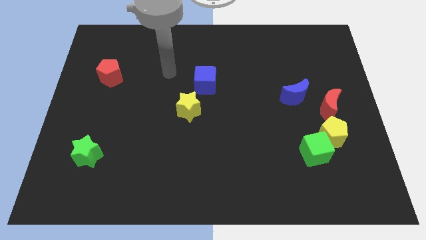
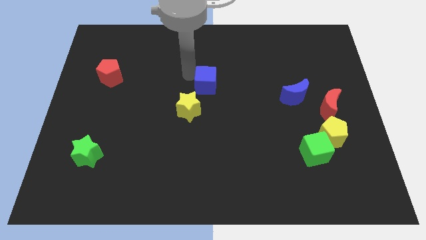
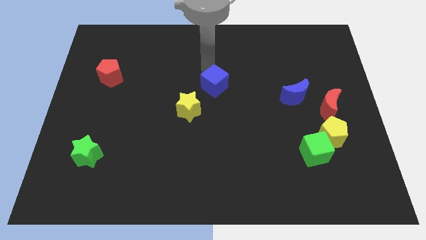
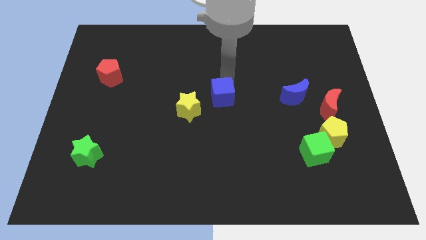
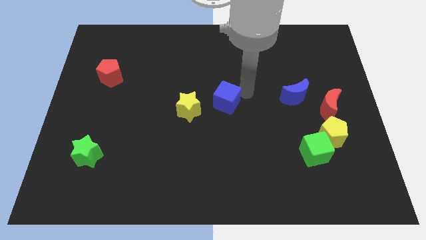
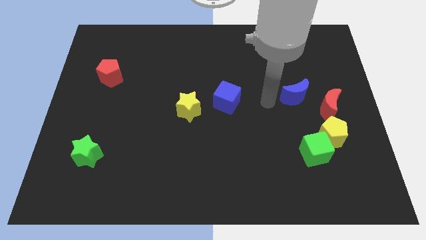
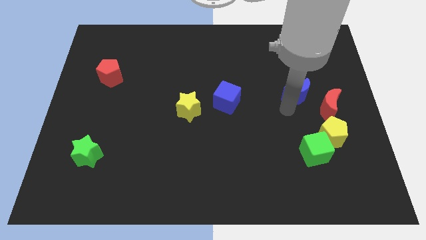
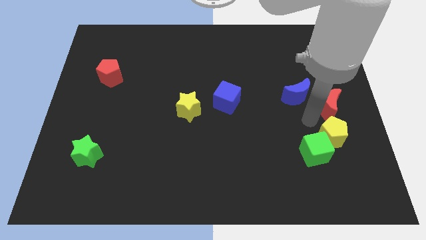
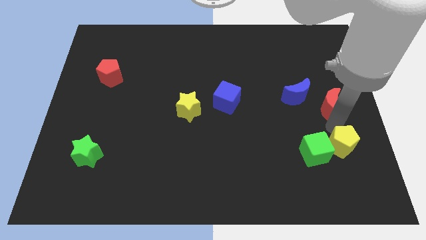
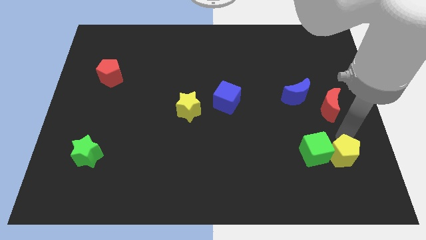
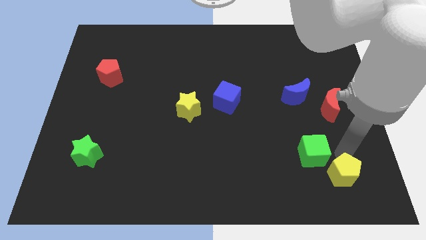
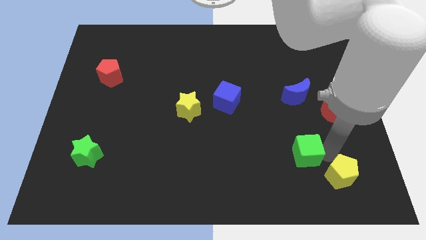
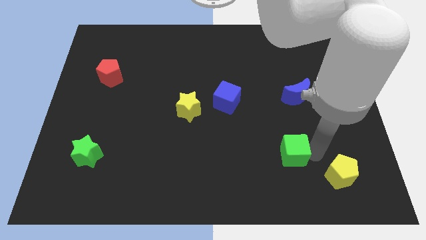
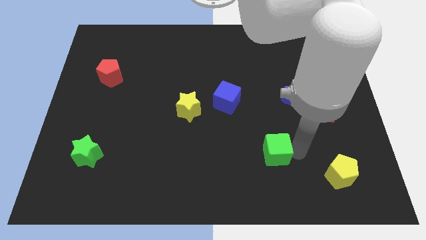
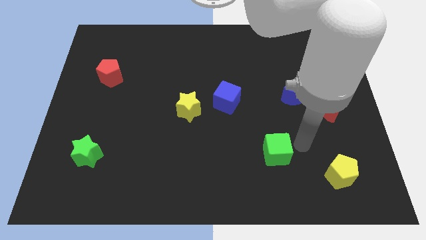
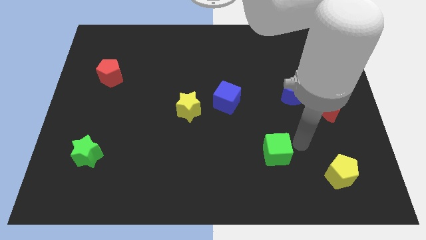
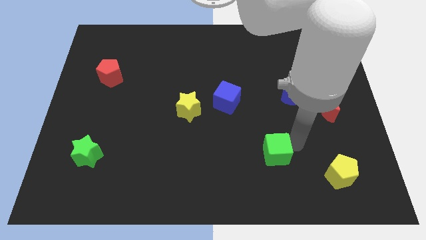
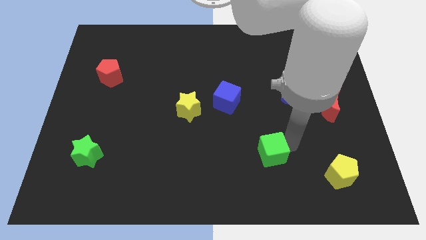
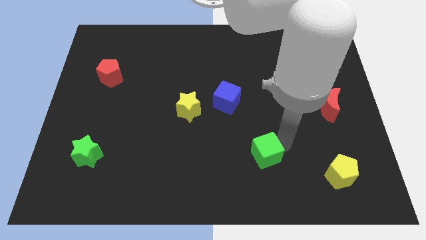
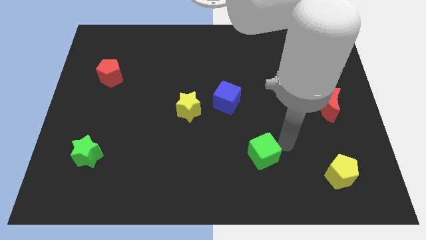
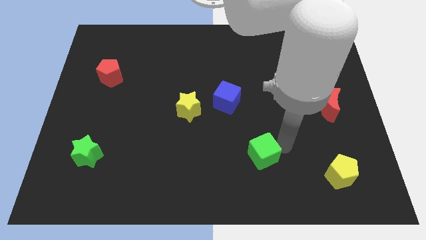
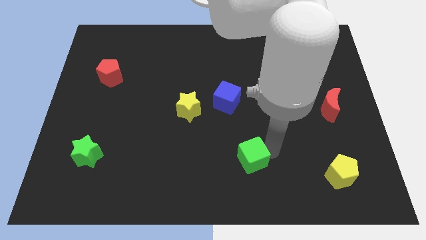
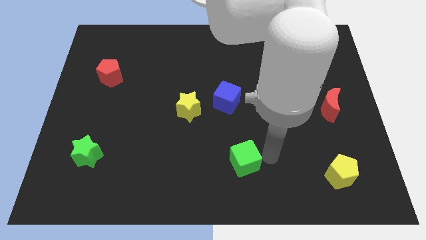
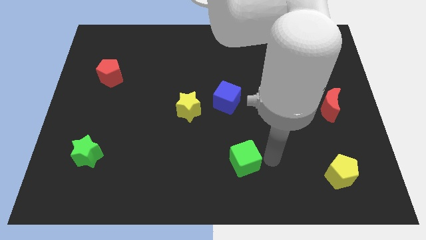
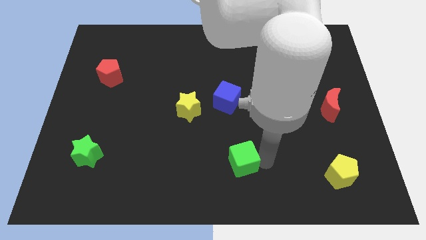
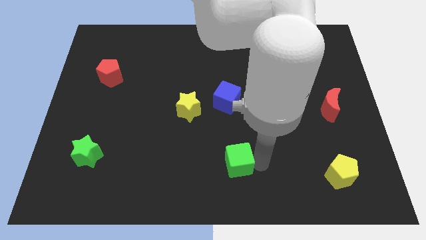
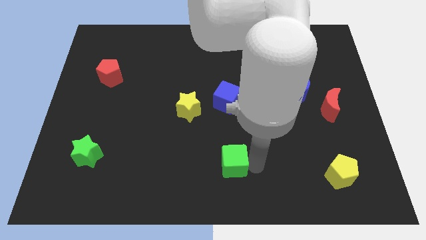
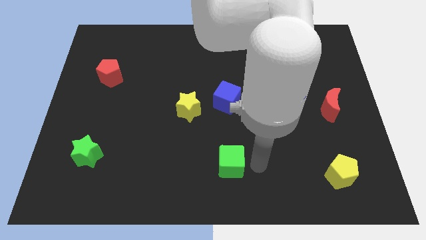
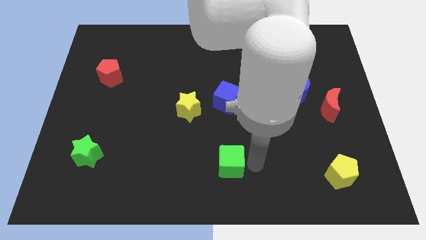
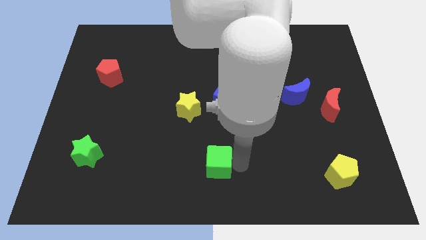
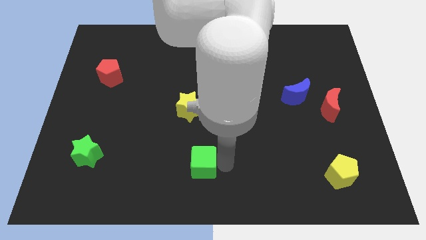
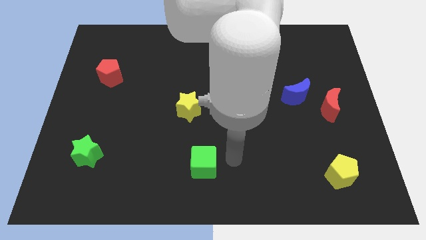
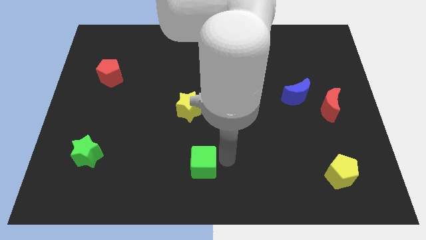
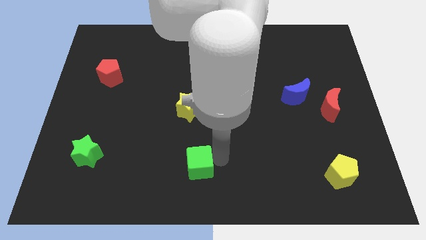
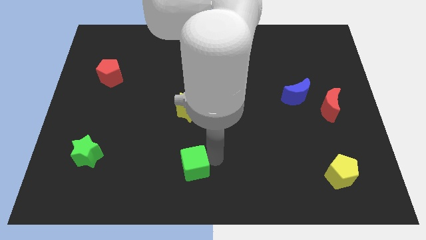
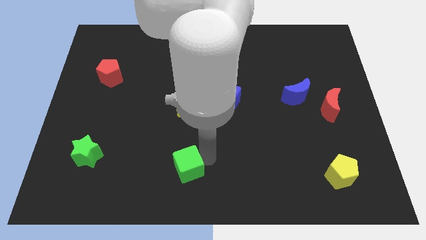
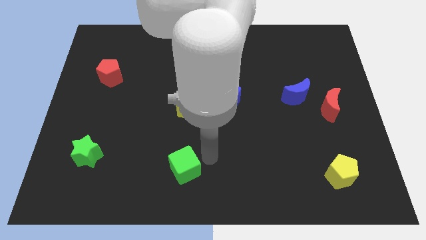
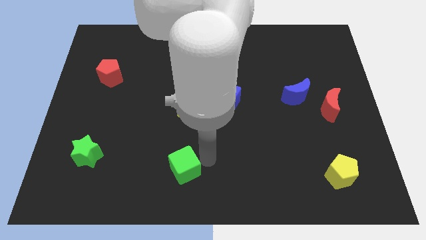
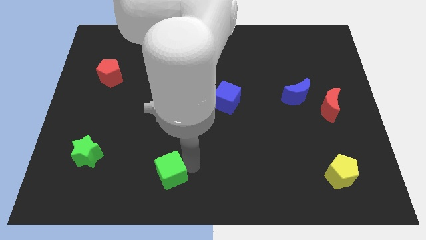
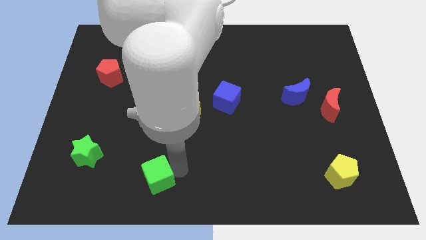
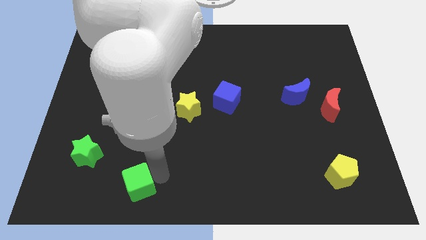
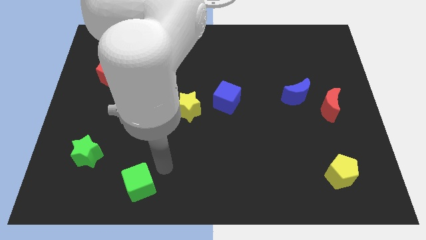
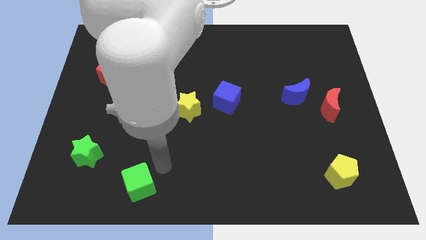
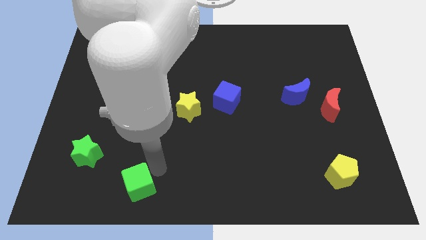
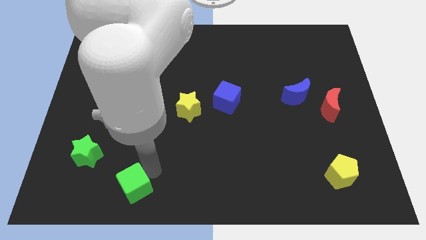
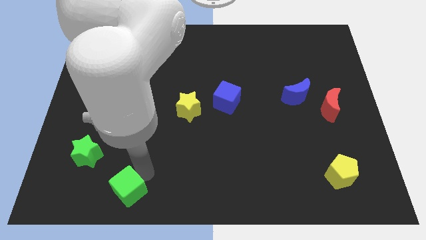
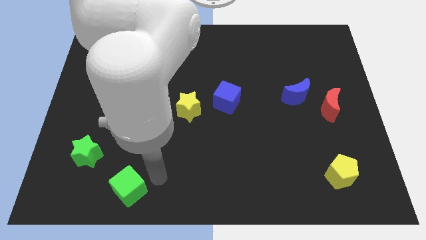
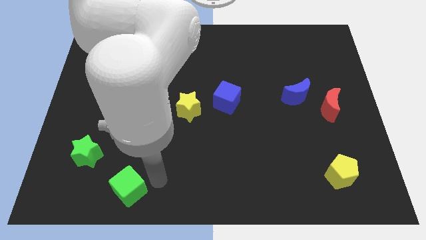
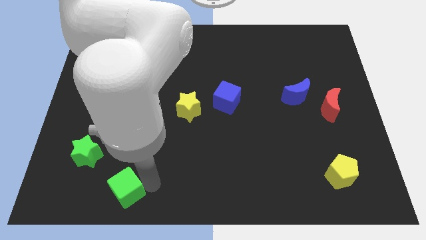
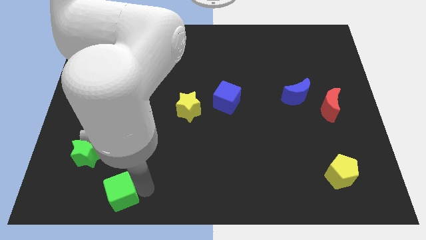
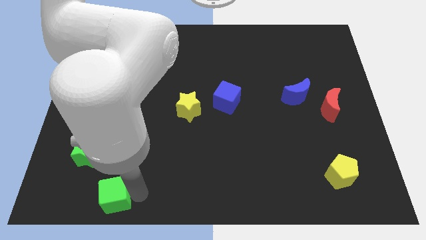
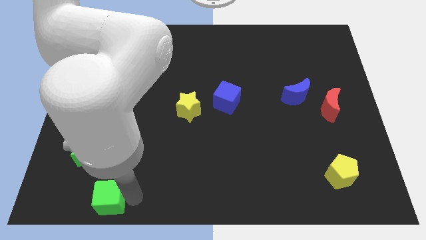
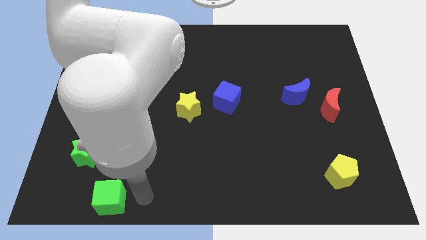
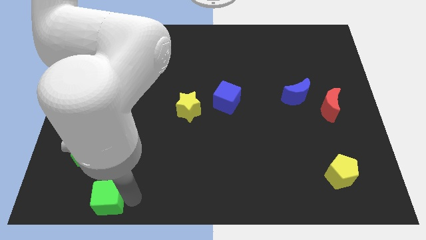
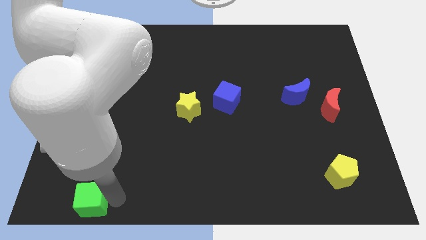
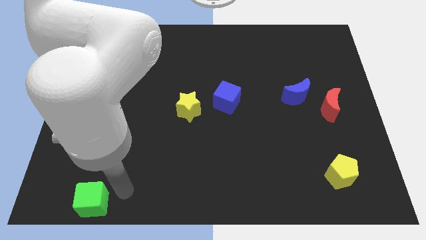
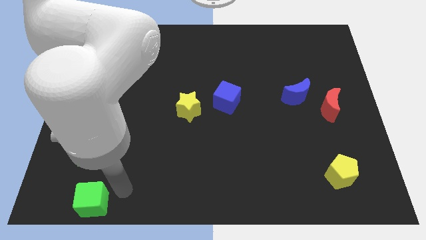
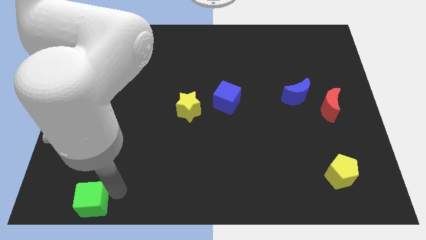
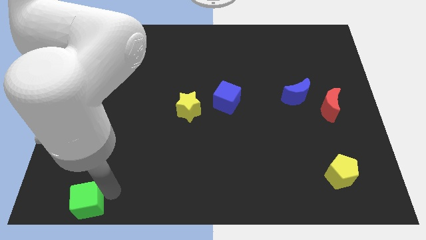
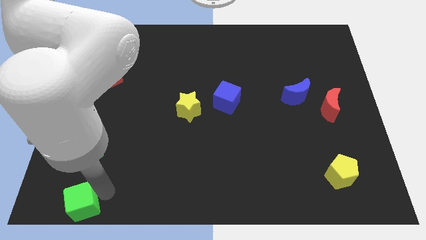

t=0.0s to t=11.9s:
slide the green cube to the bottom left

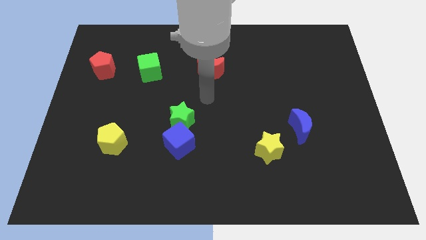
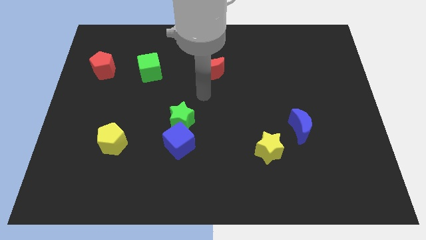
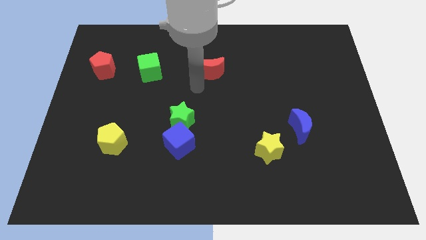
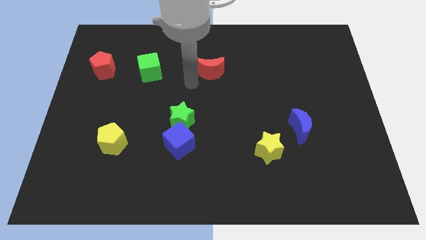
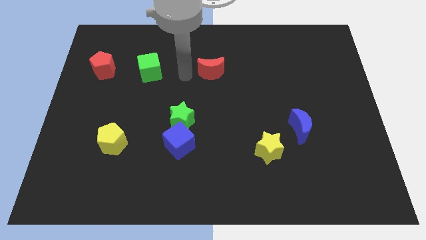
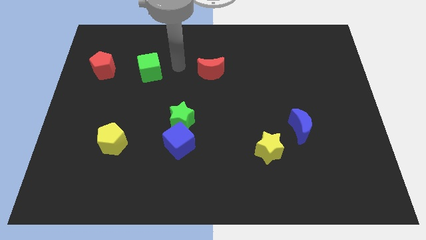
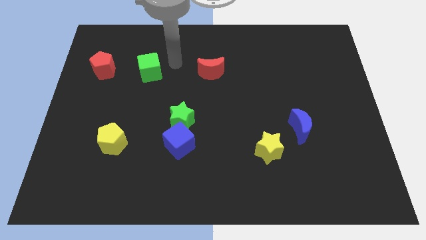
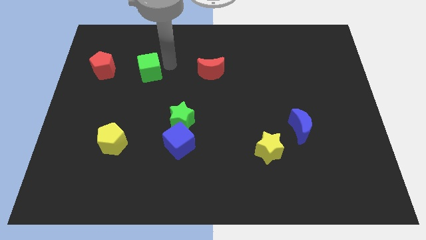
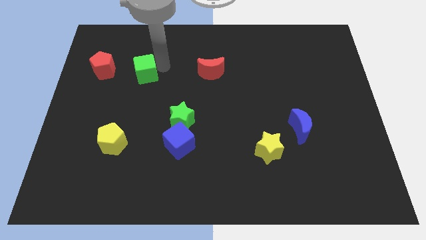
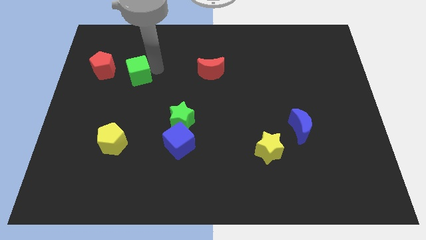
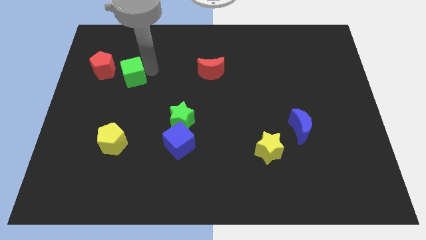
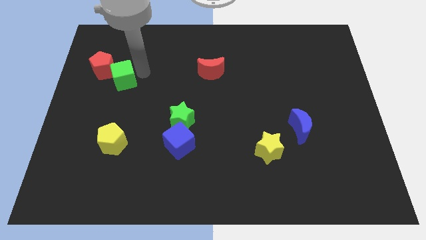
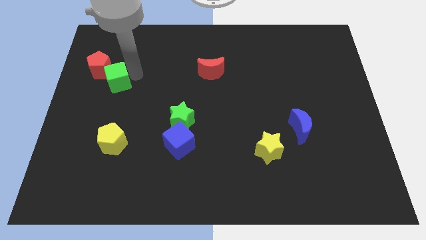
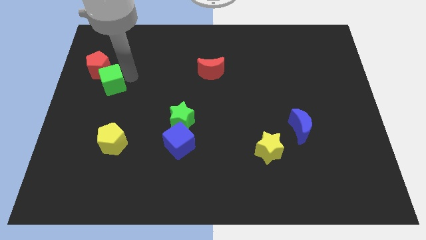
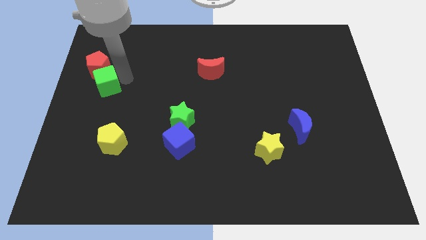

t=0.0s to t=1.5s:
slide the green cube to the center left

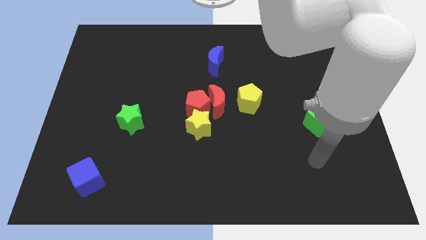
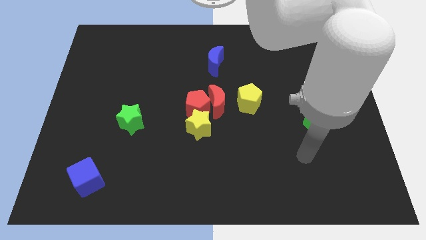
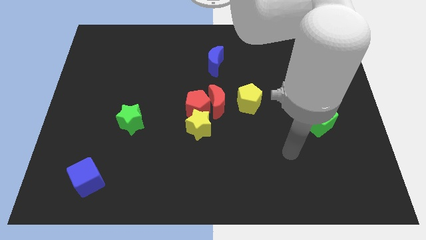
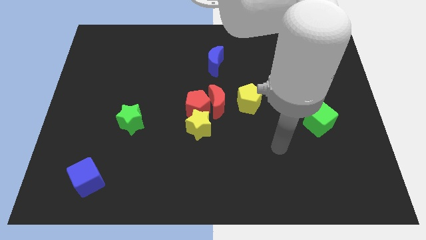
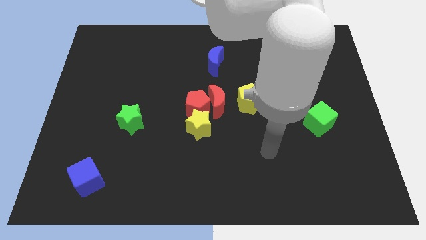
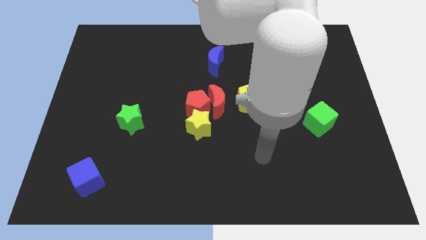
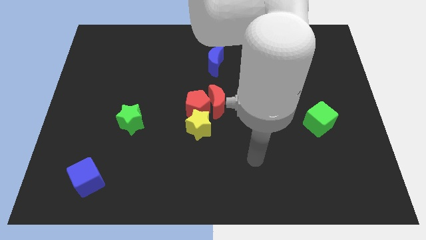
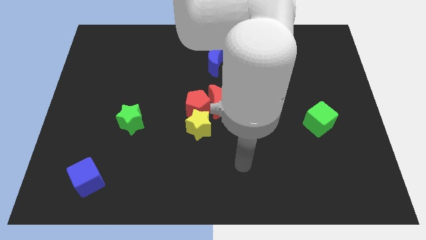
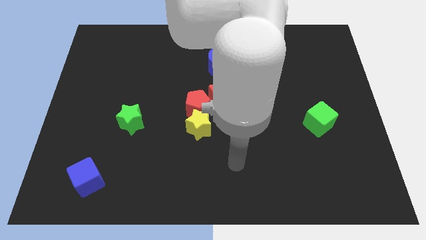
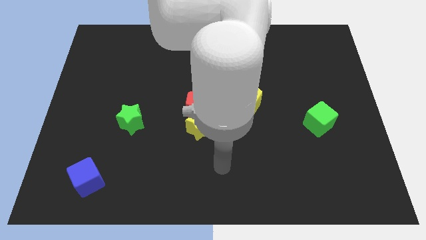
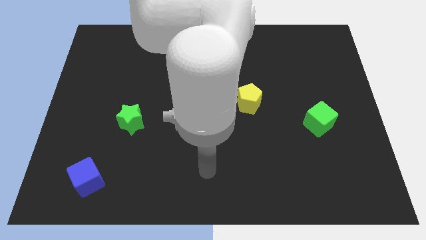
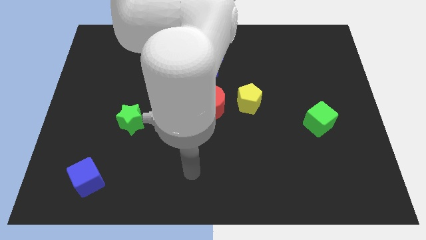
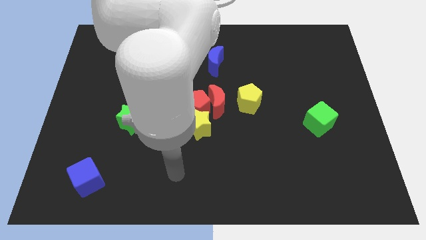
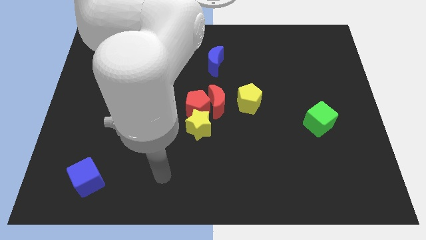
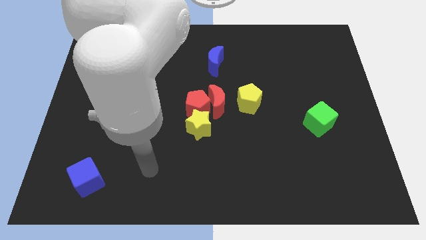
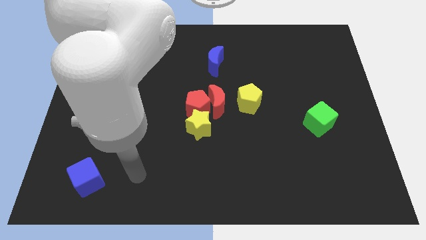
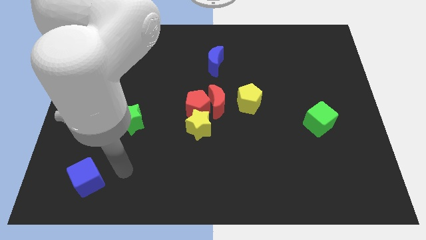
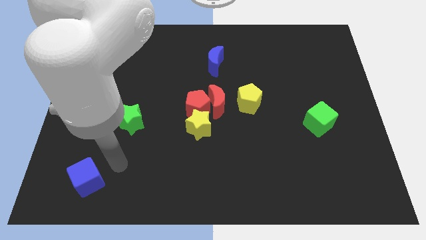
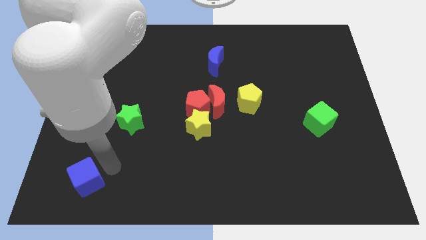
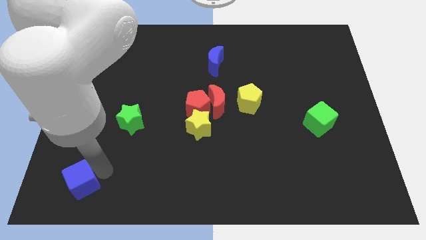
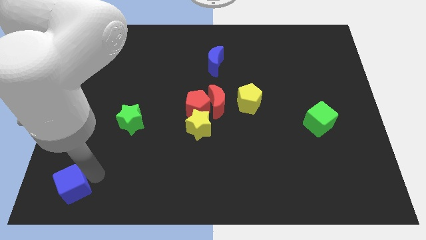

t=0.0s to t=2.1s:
slide the blue cube to the bottom left
